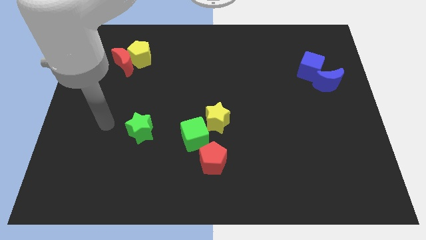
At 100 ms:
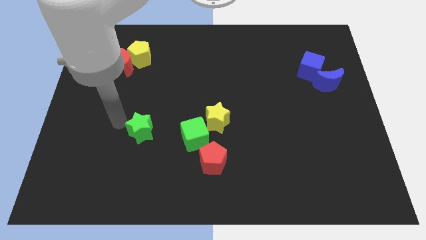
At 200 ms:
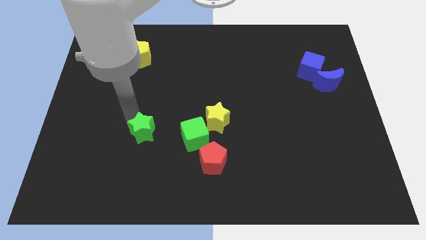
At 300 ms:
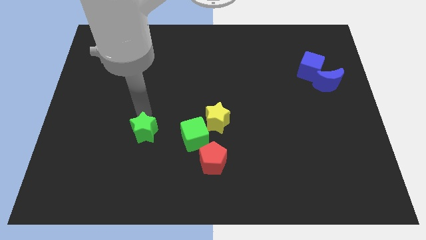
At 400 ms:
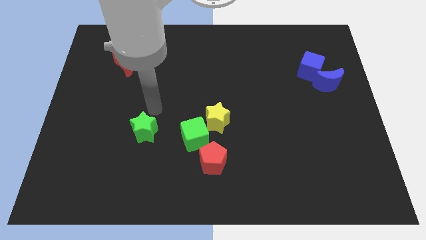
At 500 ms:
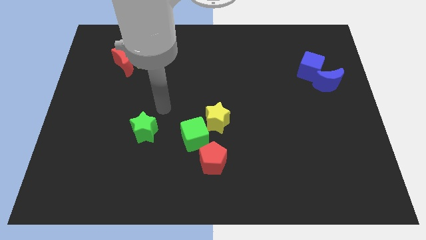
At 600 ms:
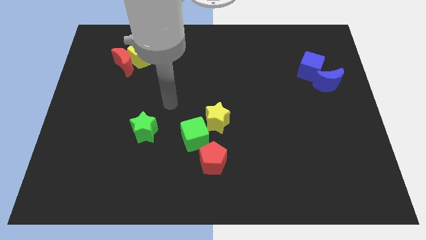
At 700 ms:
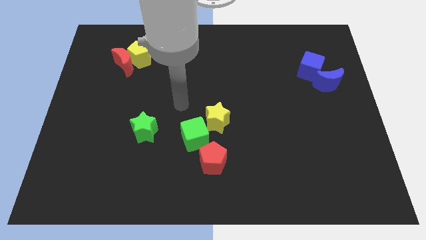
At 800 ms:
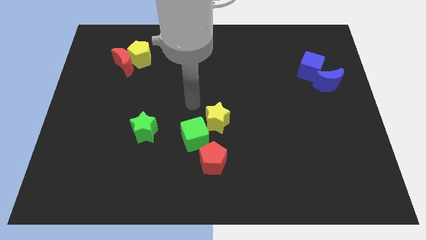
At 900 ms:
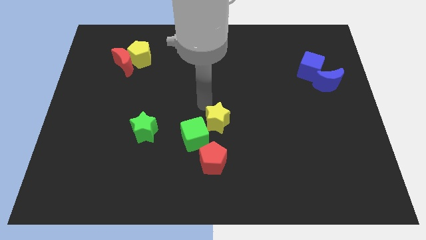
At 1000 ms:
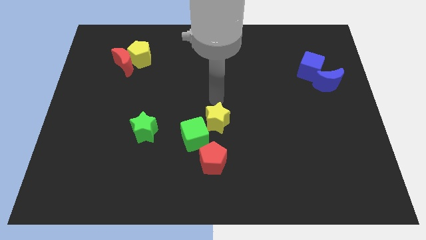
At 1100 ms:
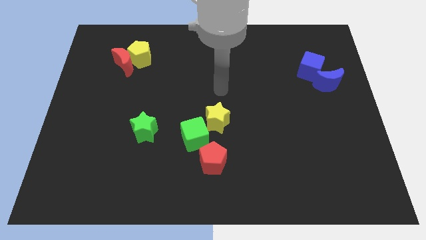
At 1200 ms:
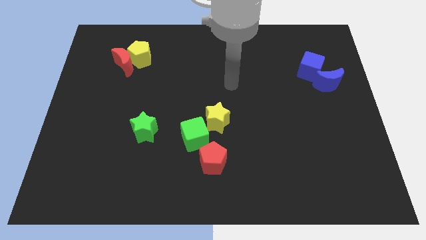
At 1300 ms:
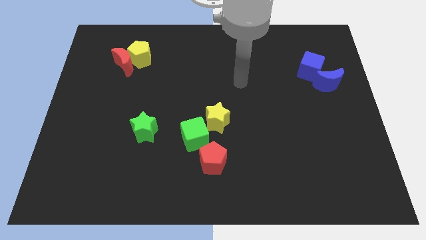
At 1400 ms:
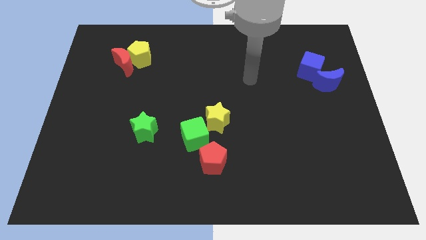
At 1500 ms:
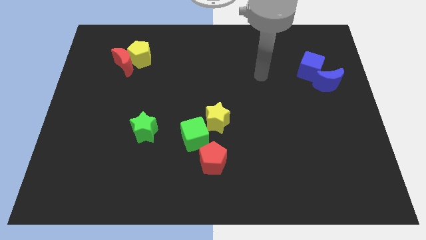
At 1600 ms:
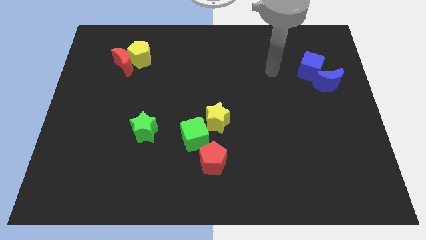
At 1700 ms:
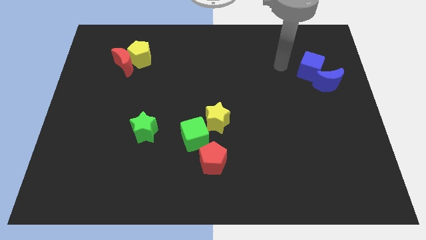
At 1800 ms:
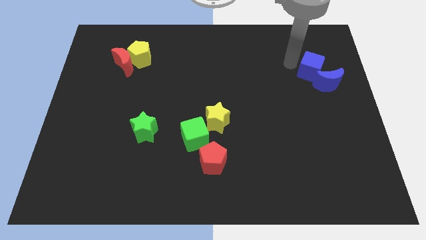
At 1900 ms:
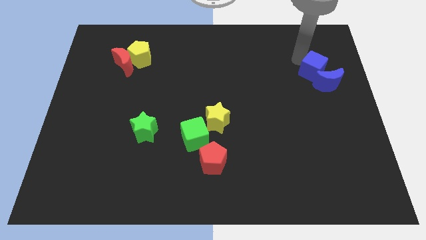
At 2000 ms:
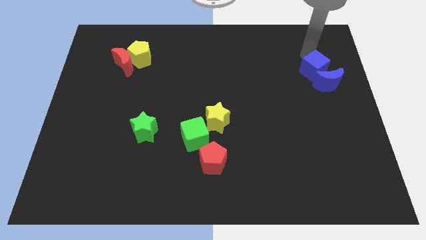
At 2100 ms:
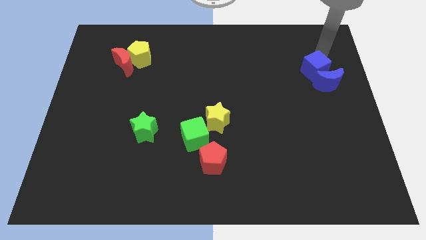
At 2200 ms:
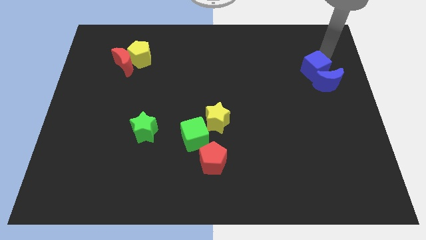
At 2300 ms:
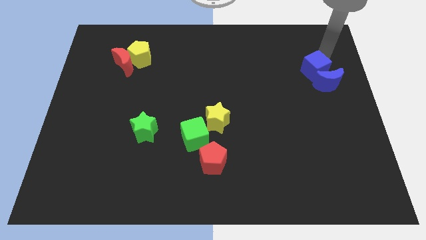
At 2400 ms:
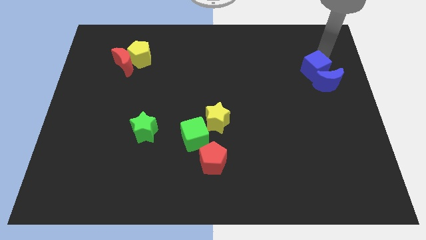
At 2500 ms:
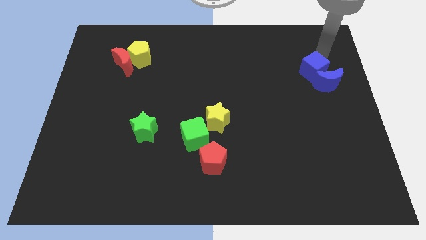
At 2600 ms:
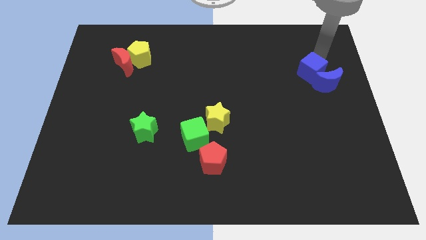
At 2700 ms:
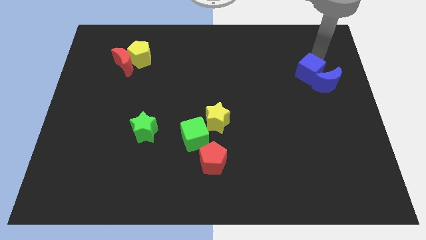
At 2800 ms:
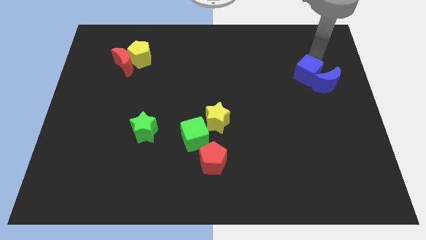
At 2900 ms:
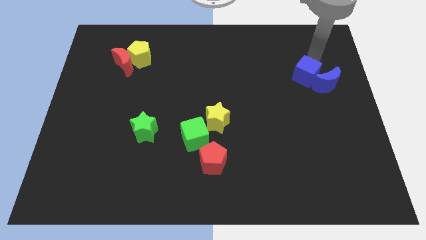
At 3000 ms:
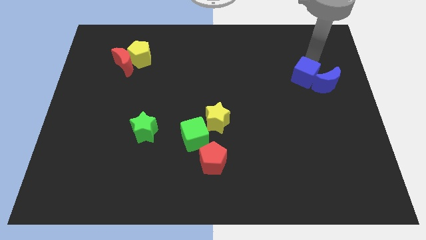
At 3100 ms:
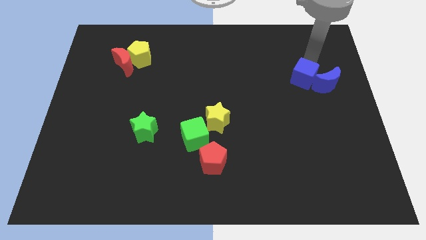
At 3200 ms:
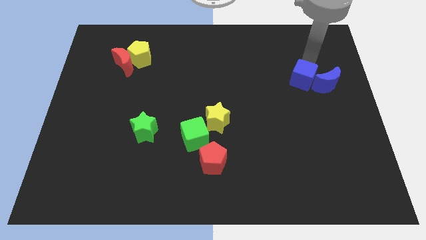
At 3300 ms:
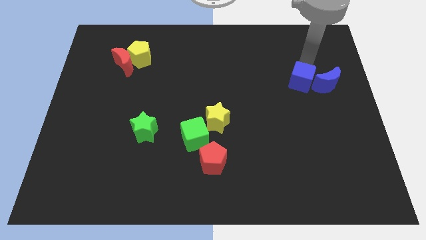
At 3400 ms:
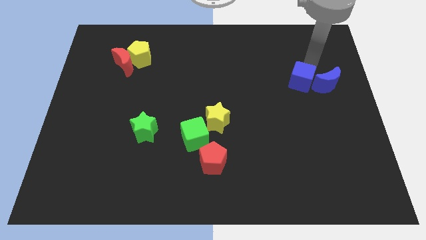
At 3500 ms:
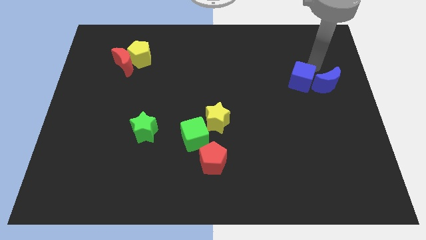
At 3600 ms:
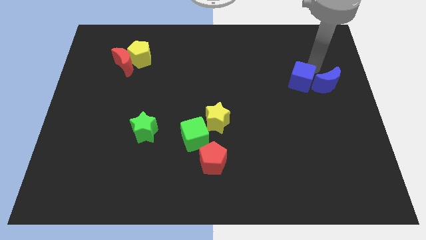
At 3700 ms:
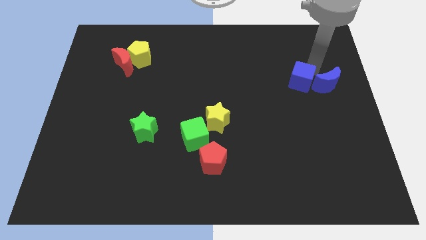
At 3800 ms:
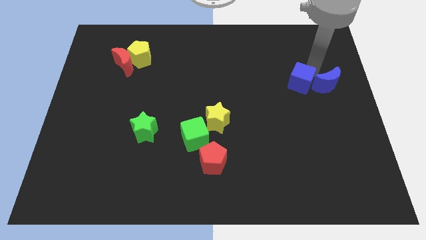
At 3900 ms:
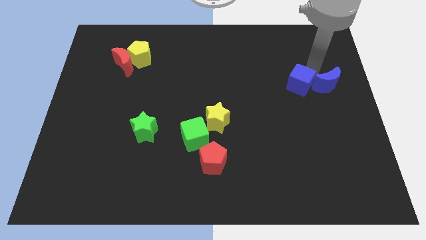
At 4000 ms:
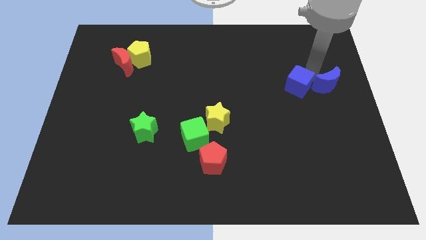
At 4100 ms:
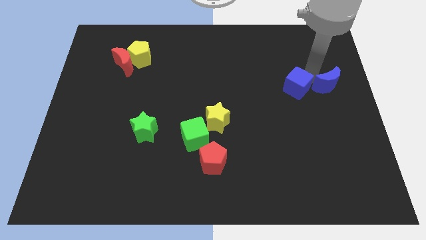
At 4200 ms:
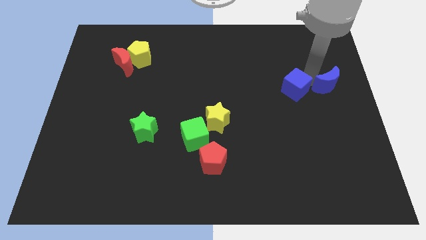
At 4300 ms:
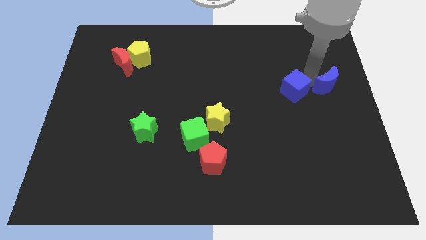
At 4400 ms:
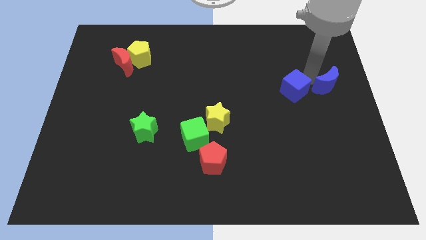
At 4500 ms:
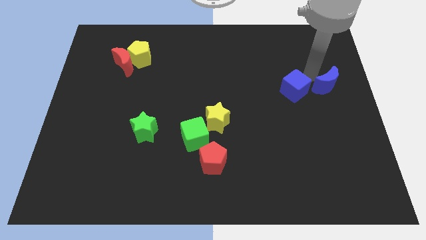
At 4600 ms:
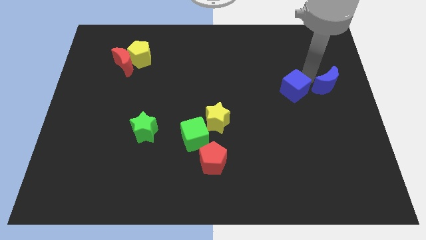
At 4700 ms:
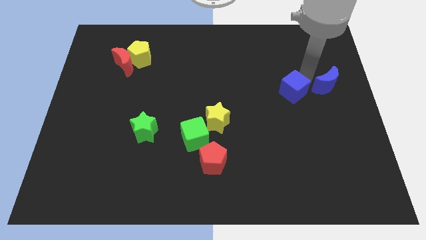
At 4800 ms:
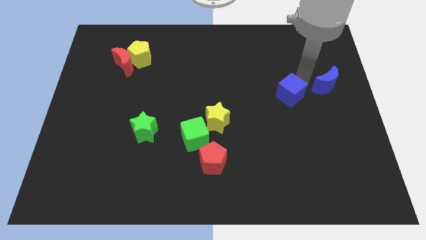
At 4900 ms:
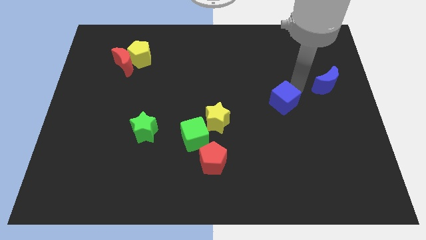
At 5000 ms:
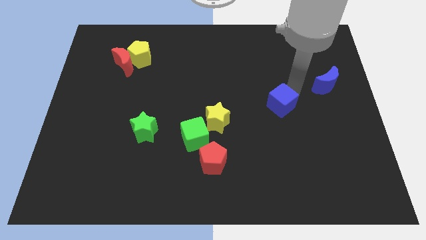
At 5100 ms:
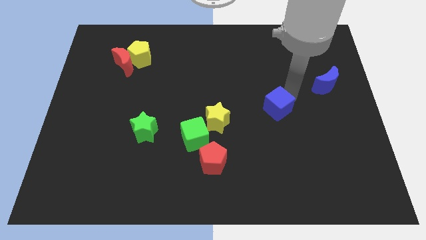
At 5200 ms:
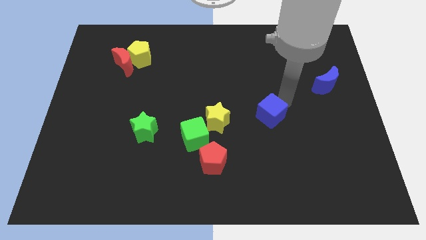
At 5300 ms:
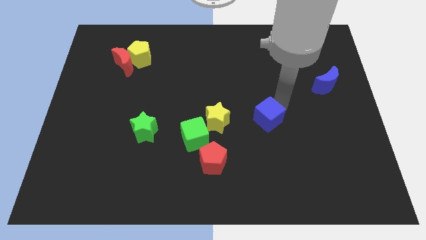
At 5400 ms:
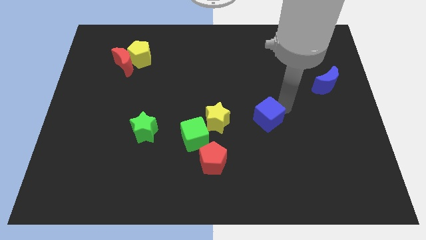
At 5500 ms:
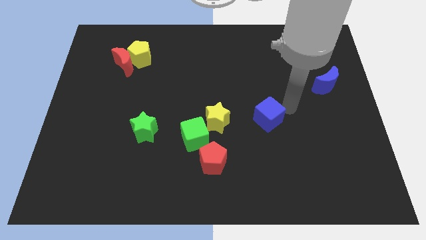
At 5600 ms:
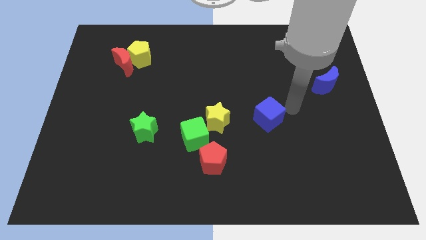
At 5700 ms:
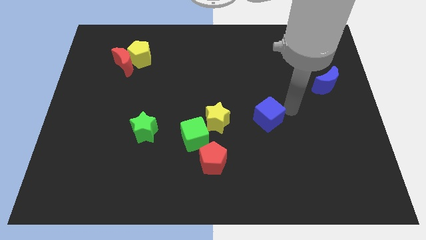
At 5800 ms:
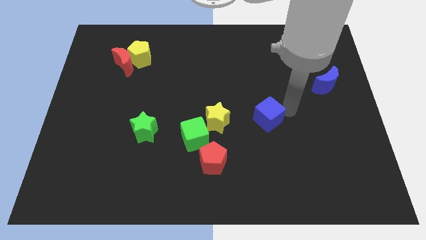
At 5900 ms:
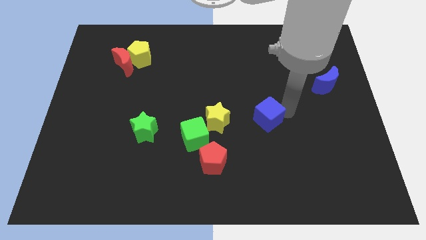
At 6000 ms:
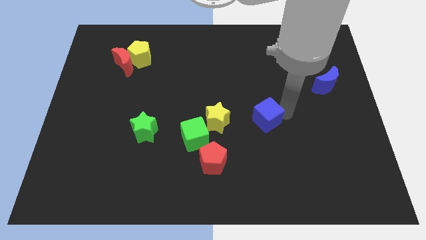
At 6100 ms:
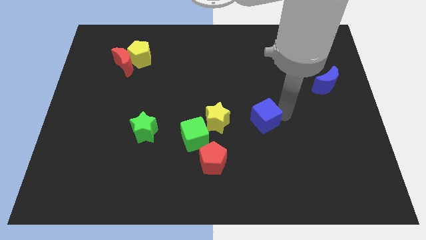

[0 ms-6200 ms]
slide the blue cube downwards and left

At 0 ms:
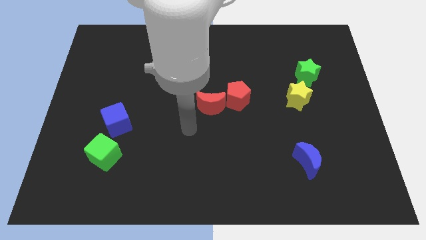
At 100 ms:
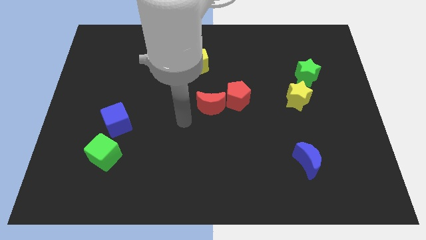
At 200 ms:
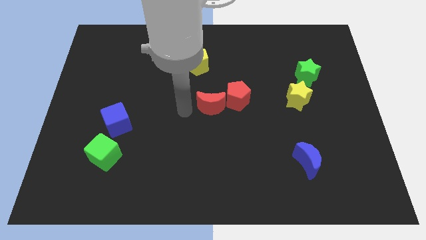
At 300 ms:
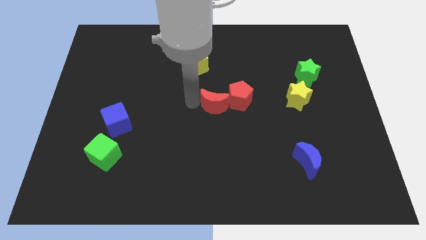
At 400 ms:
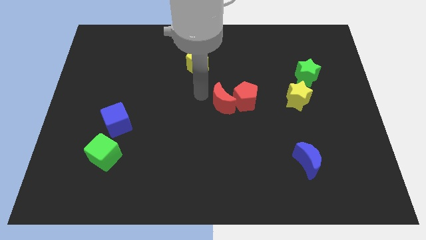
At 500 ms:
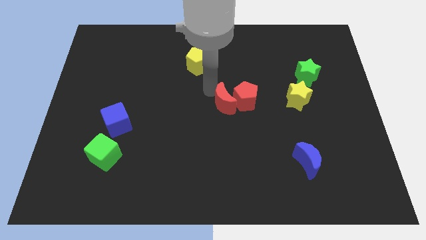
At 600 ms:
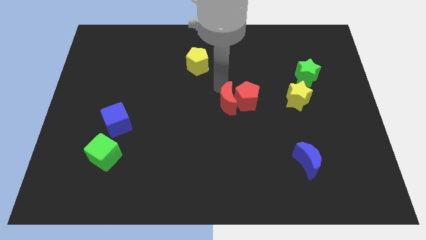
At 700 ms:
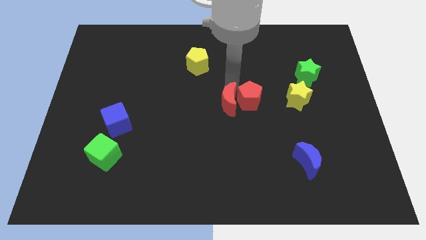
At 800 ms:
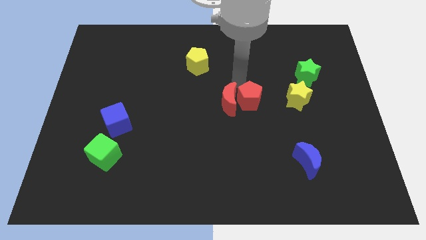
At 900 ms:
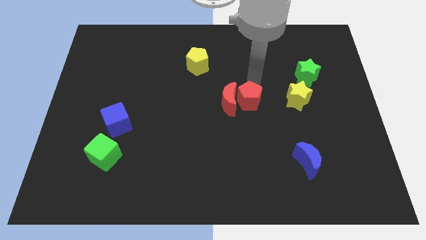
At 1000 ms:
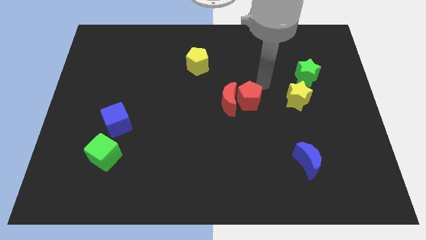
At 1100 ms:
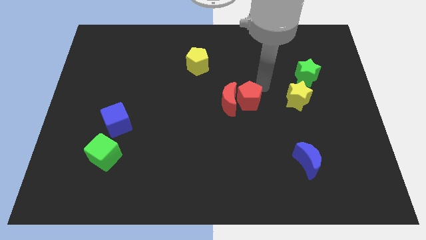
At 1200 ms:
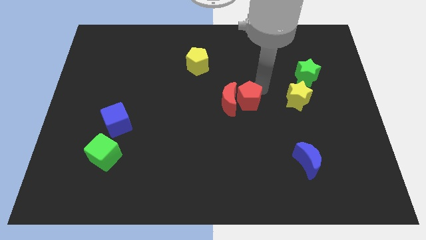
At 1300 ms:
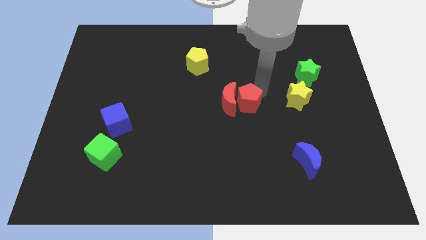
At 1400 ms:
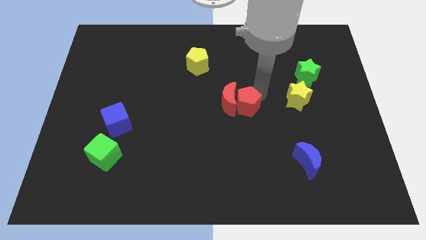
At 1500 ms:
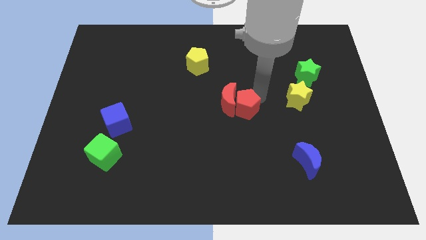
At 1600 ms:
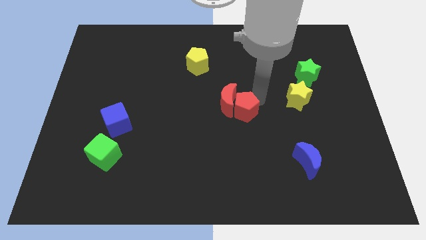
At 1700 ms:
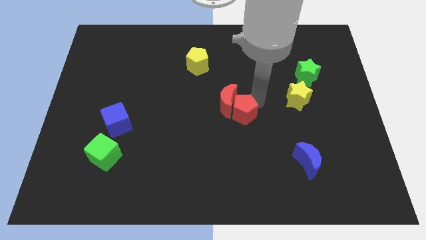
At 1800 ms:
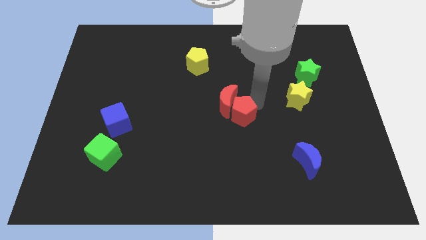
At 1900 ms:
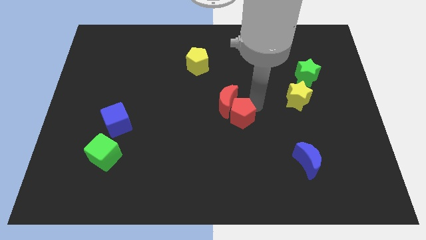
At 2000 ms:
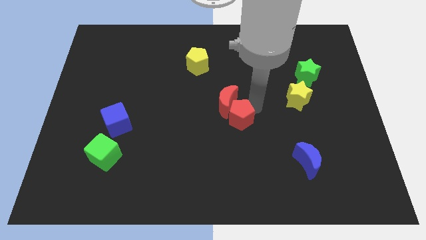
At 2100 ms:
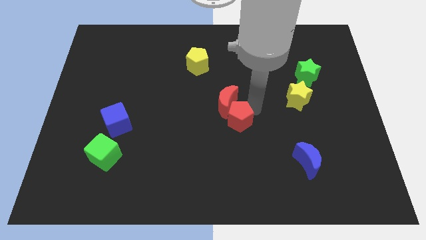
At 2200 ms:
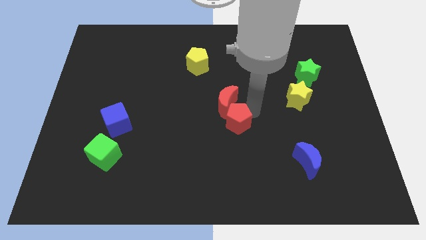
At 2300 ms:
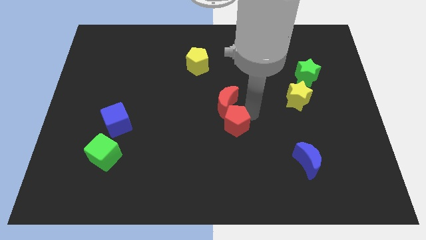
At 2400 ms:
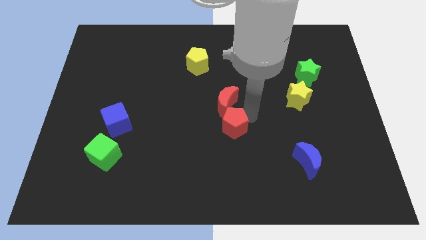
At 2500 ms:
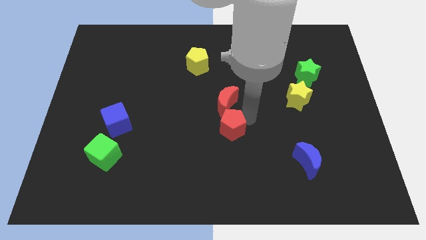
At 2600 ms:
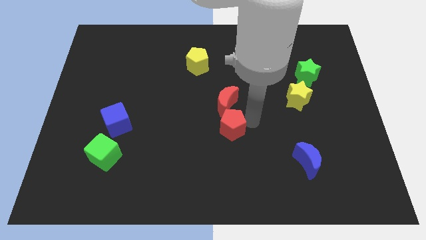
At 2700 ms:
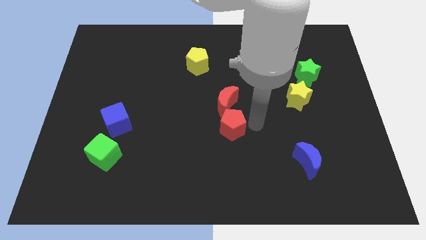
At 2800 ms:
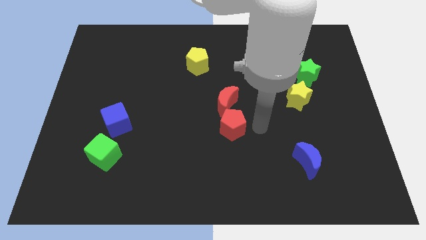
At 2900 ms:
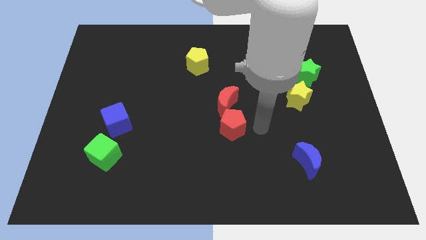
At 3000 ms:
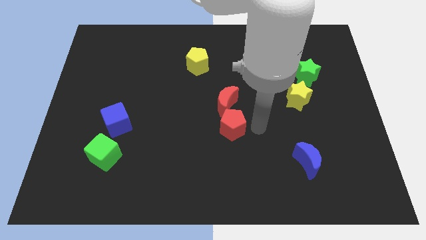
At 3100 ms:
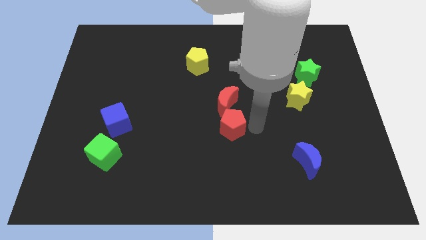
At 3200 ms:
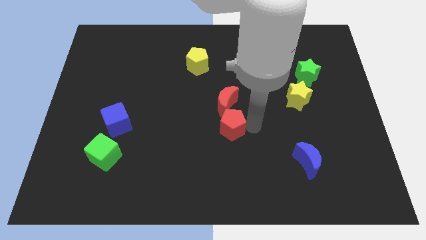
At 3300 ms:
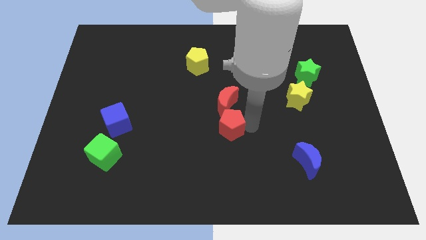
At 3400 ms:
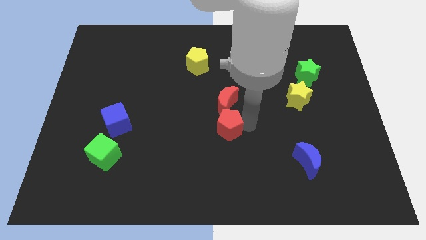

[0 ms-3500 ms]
move the red pentagon a little downwards and to the left
